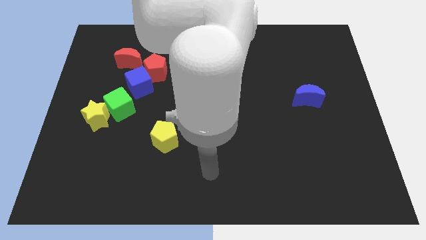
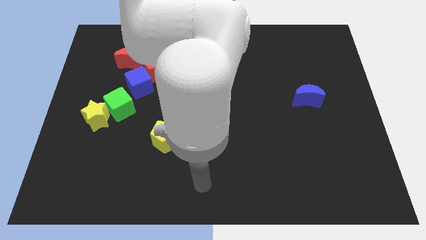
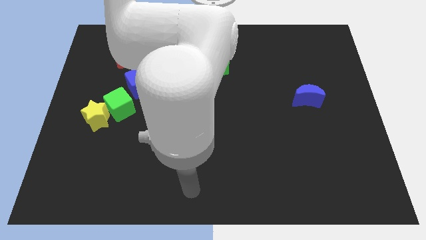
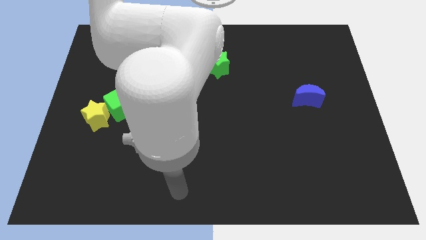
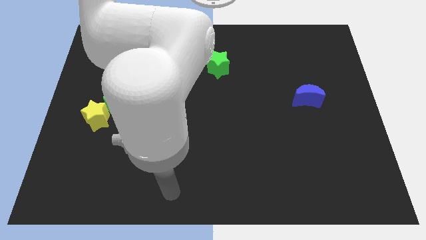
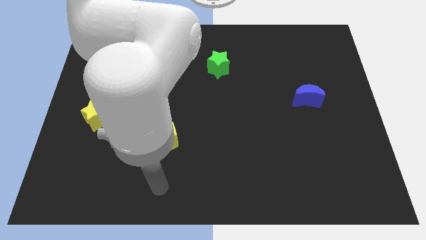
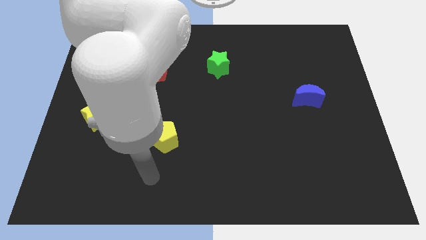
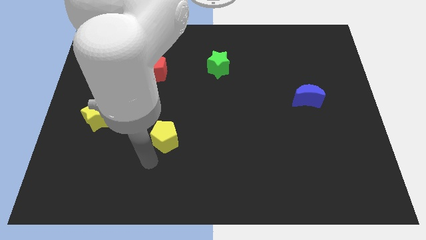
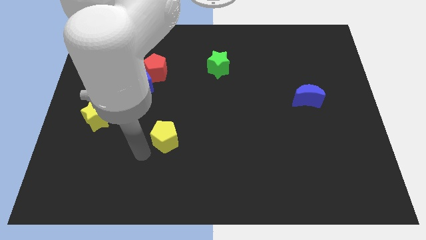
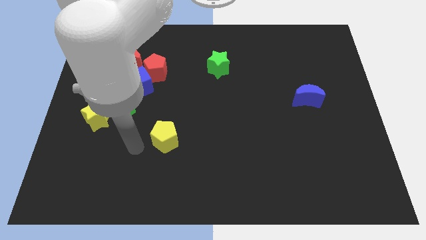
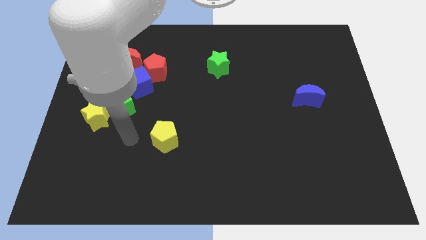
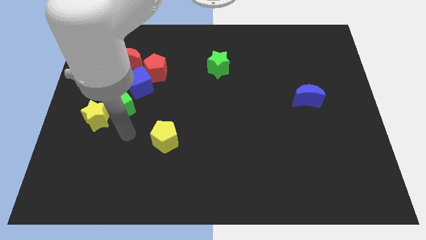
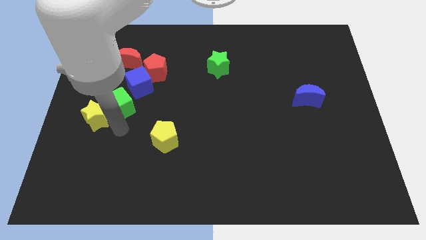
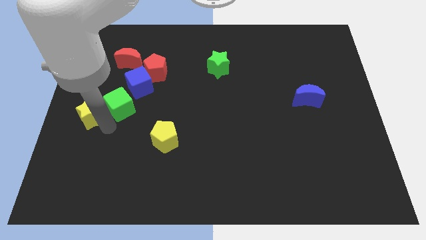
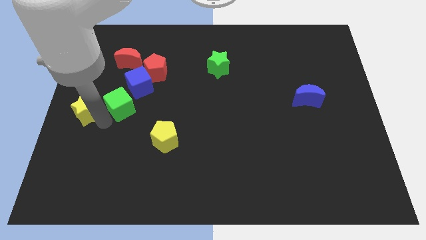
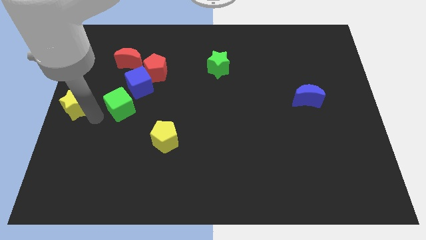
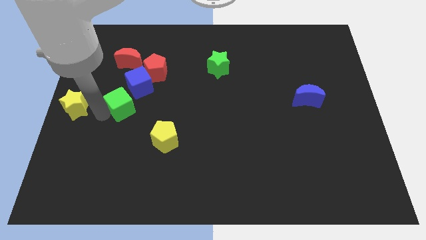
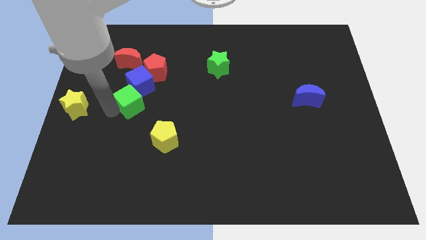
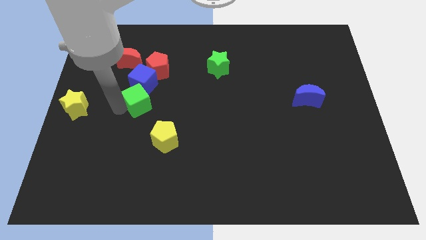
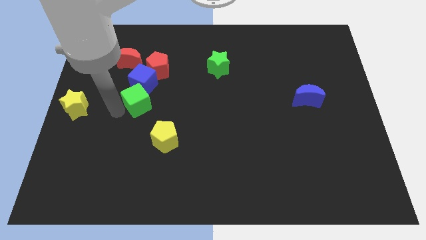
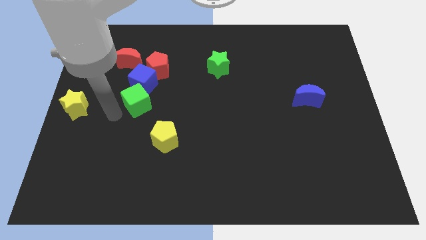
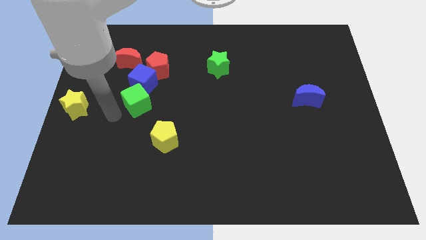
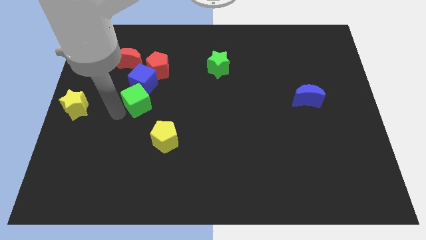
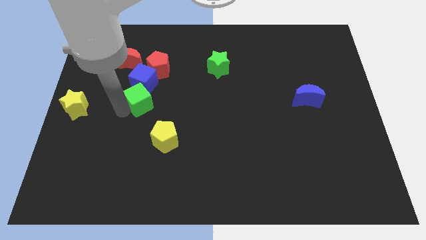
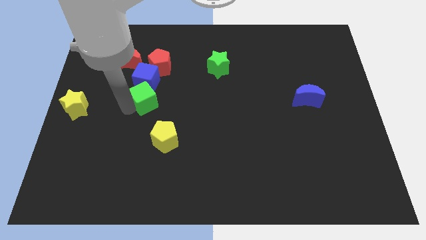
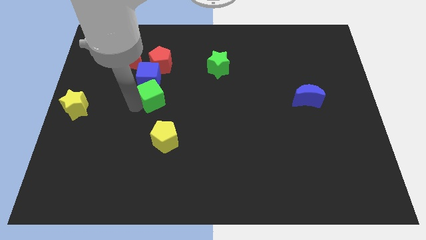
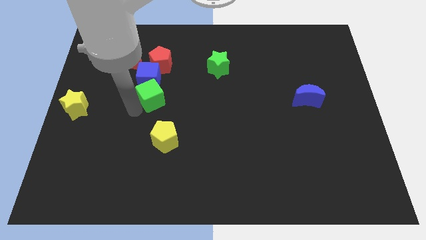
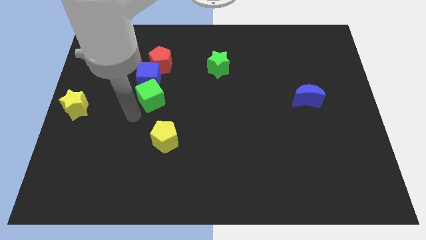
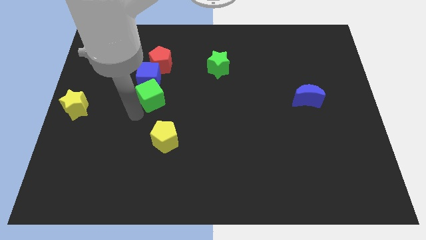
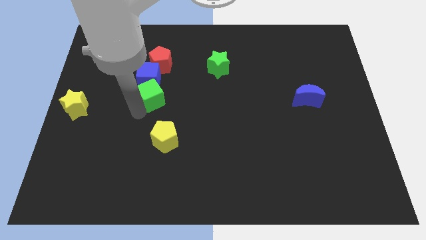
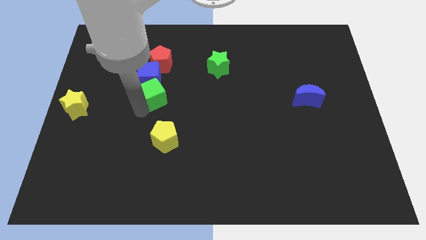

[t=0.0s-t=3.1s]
push the green cube a bit upwards and then right

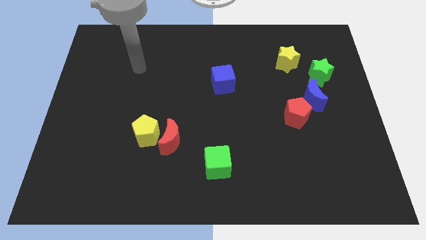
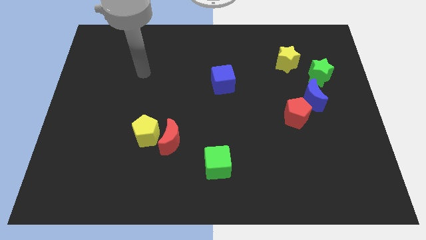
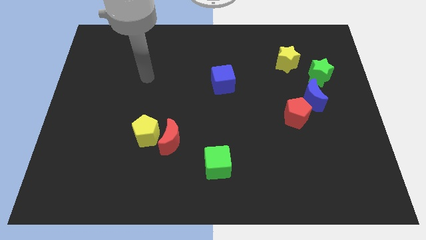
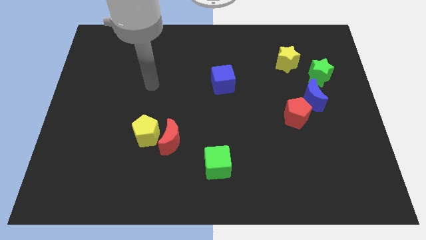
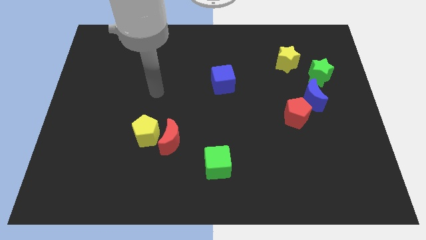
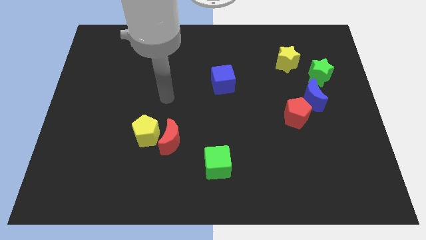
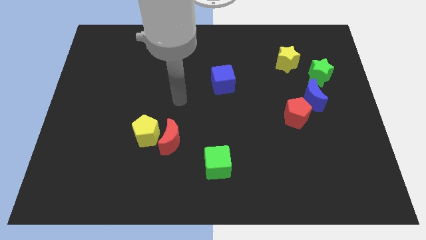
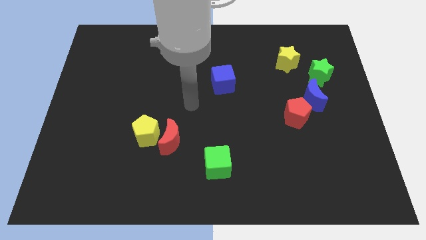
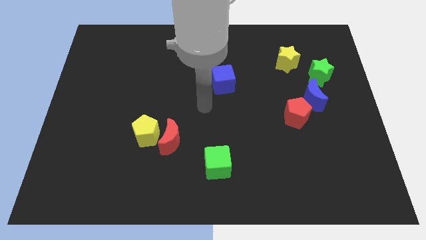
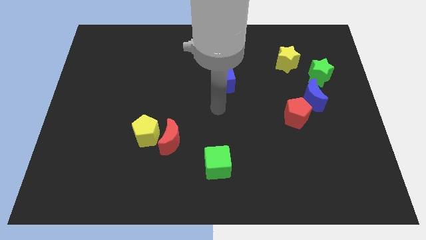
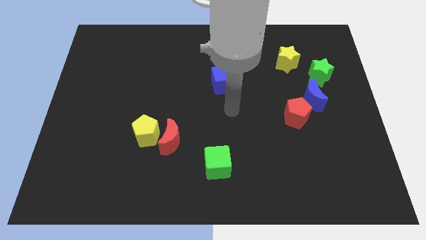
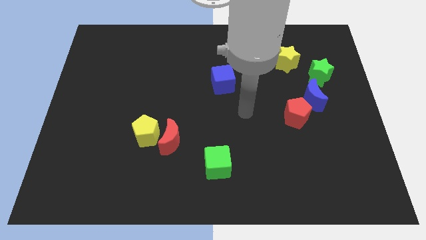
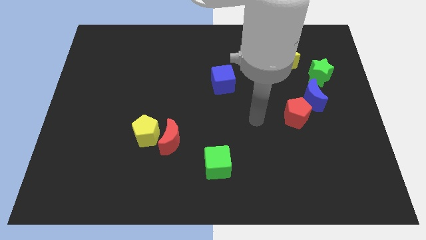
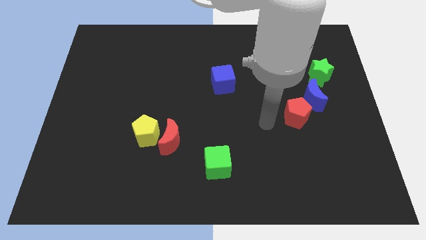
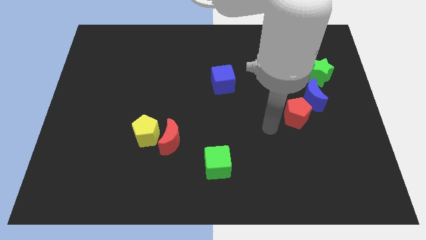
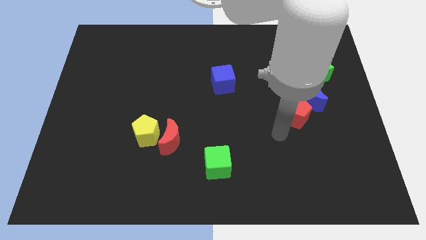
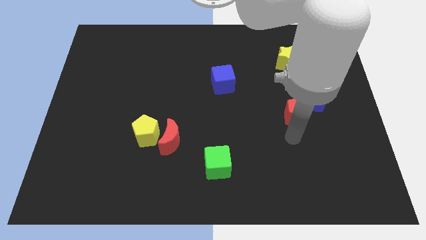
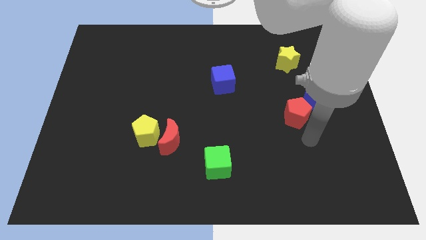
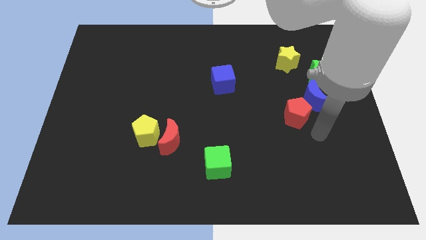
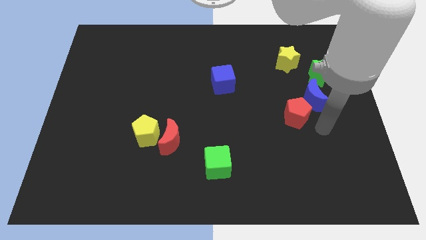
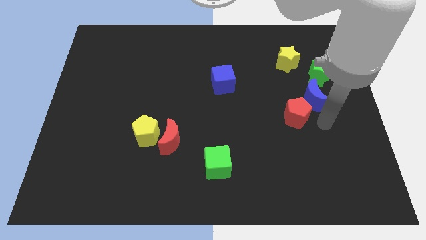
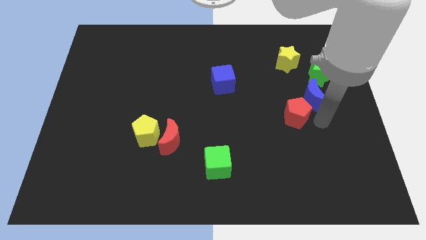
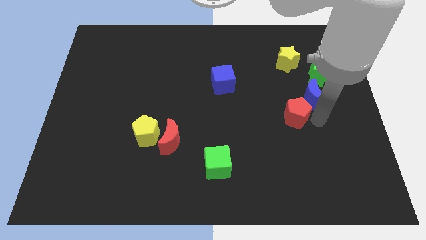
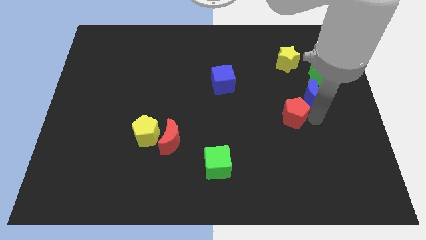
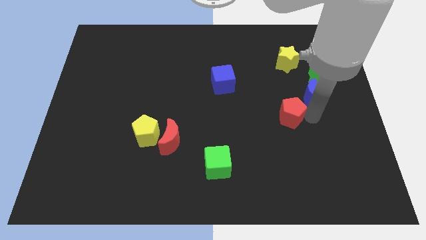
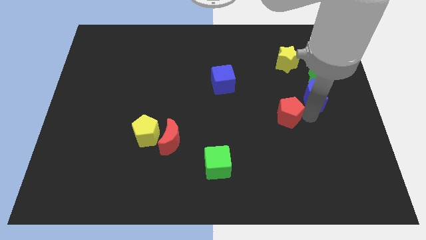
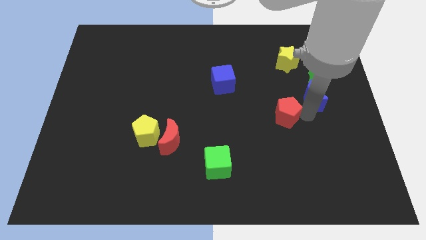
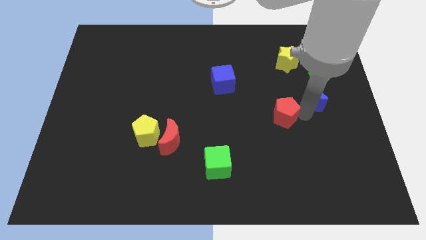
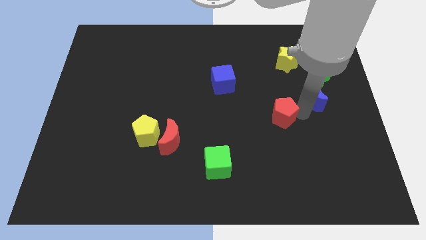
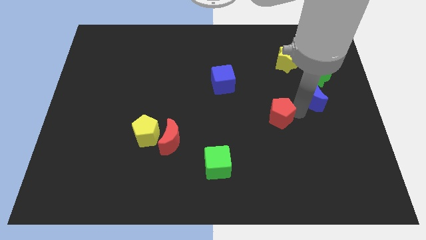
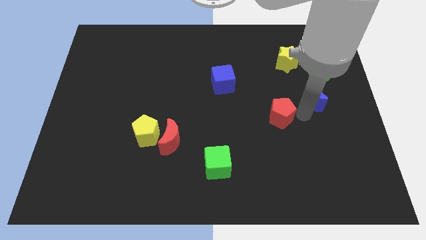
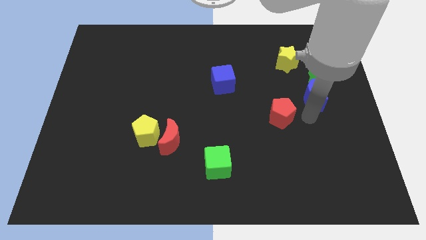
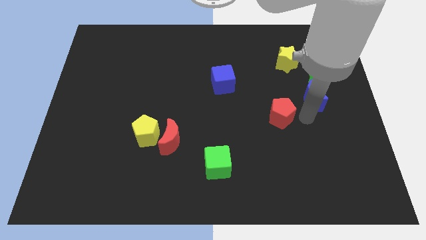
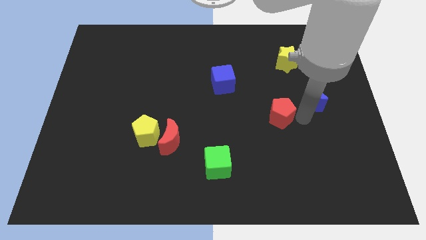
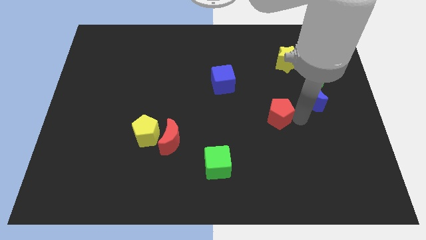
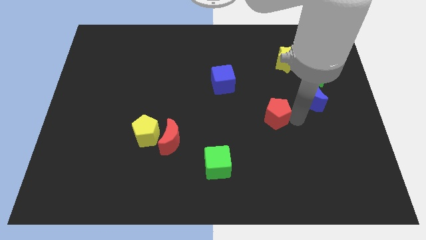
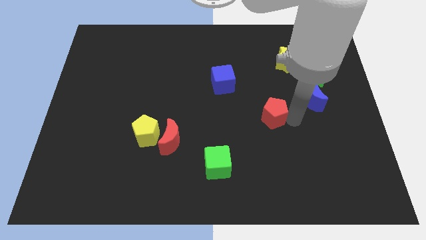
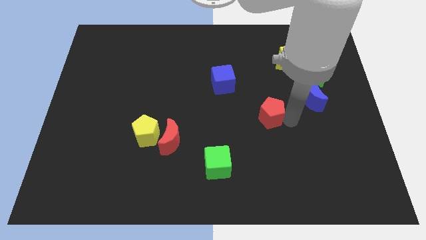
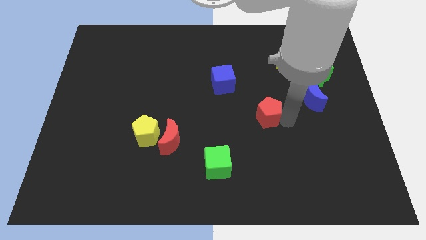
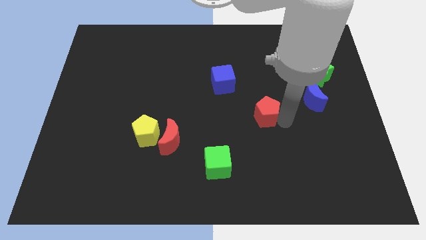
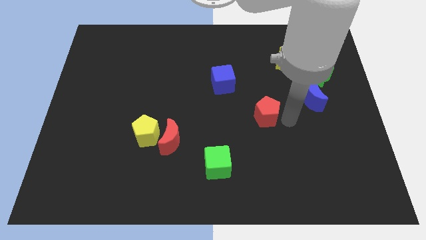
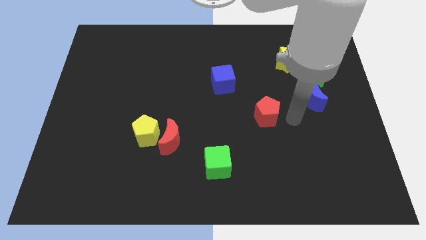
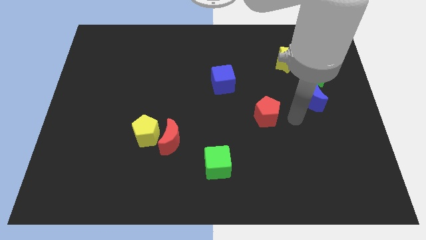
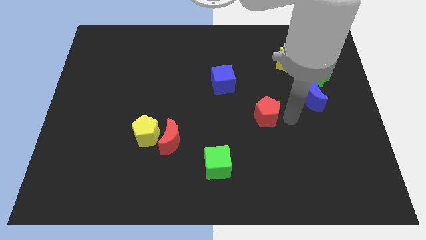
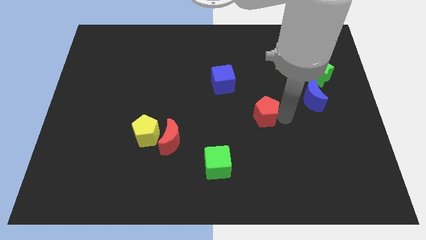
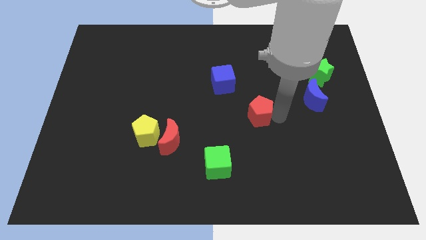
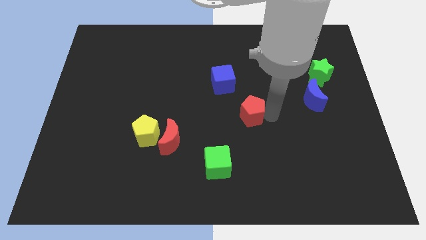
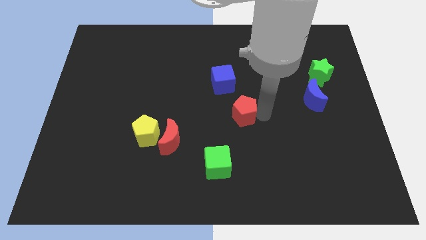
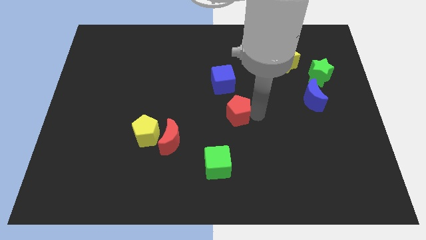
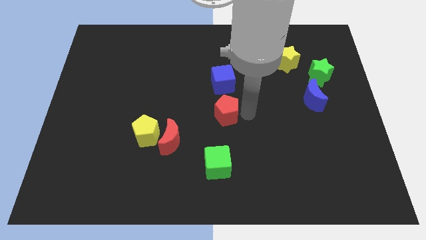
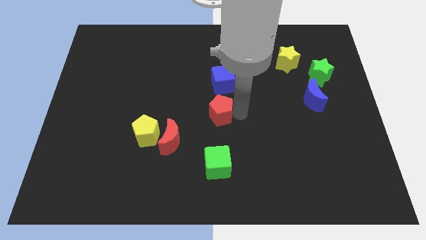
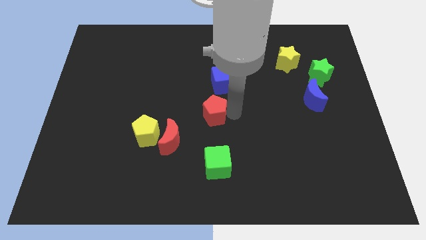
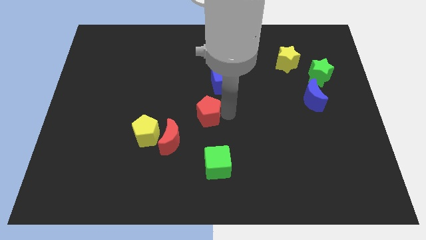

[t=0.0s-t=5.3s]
move the red pentagon to the left

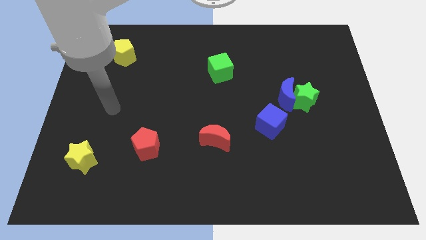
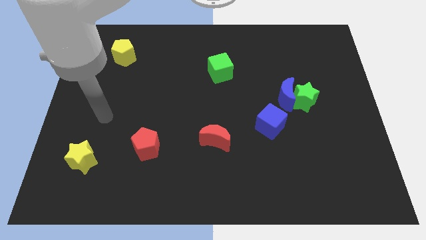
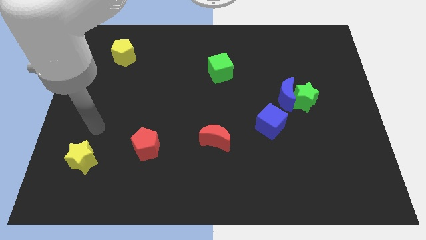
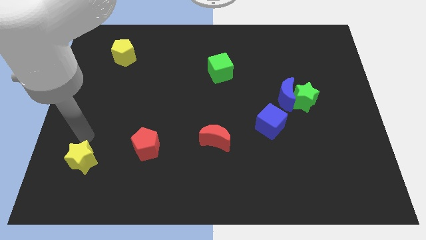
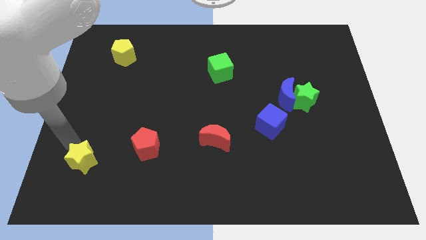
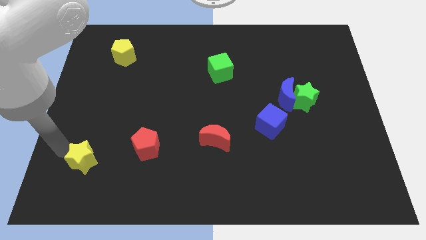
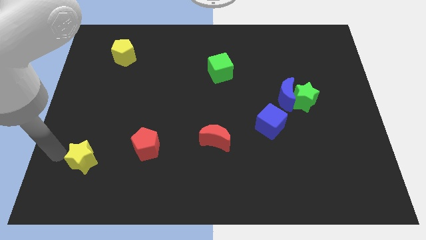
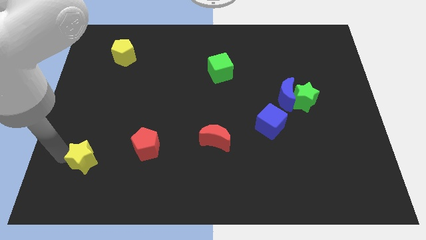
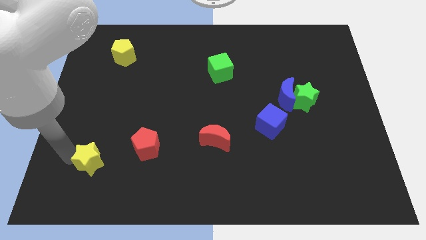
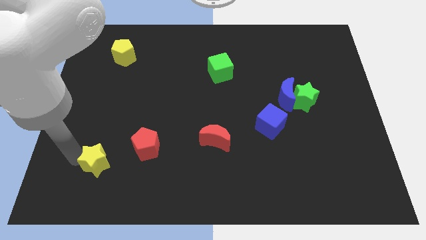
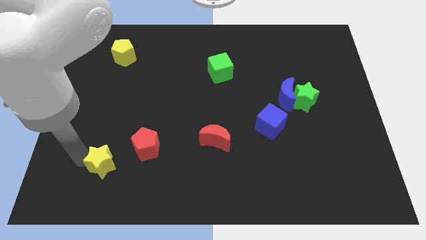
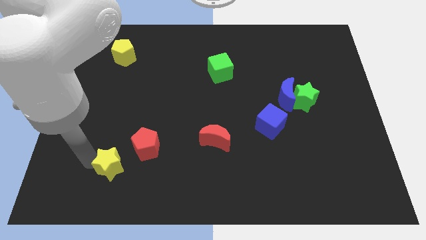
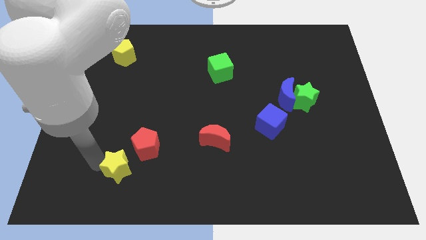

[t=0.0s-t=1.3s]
slightly slide the yellow star right
